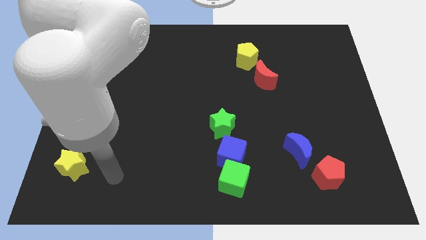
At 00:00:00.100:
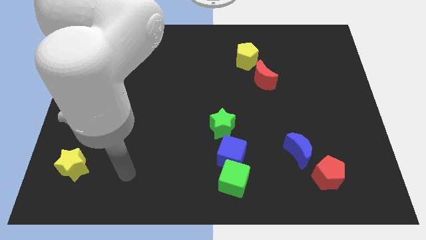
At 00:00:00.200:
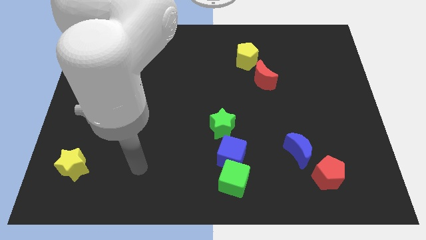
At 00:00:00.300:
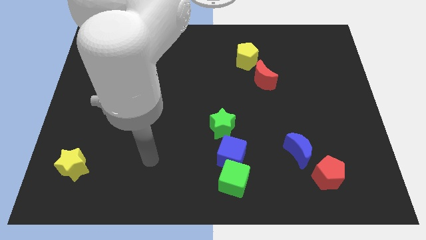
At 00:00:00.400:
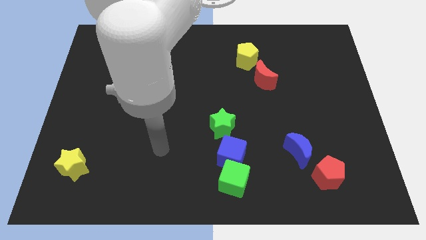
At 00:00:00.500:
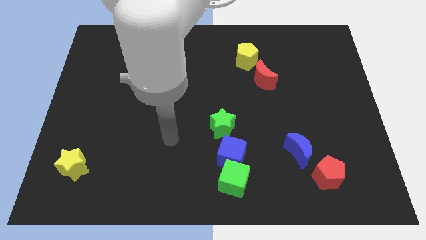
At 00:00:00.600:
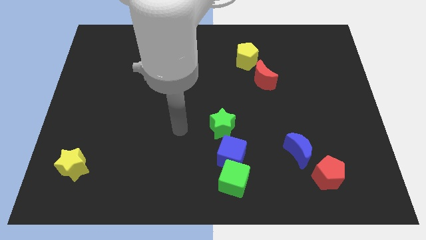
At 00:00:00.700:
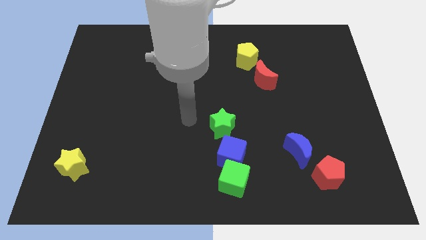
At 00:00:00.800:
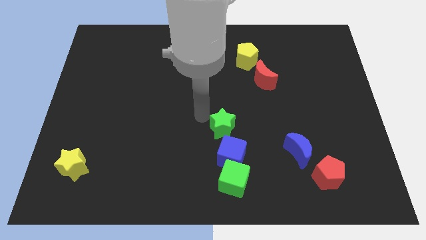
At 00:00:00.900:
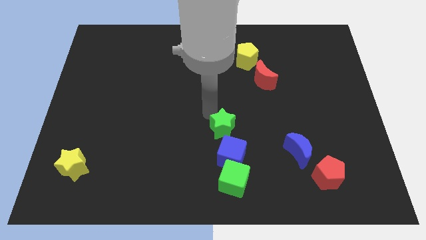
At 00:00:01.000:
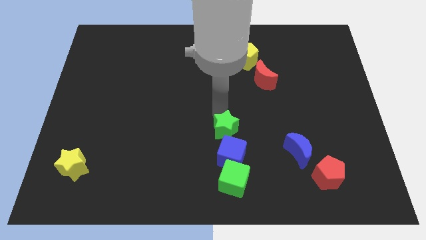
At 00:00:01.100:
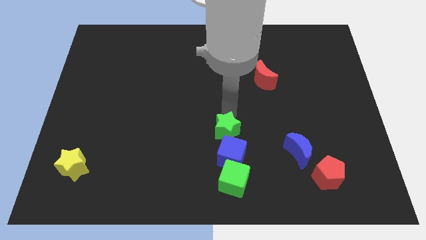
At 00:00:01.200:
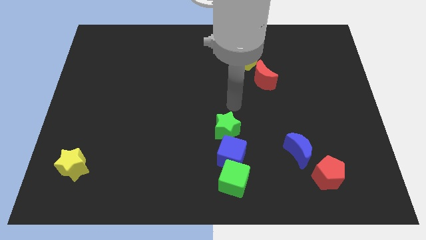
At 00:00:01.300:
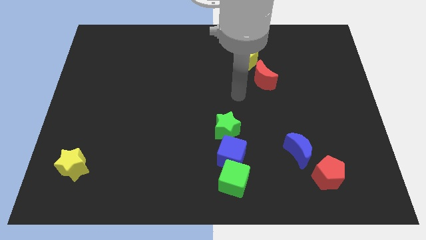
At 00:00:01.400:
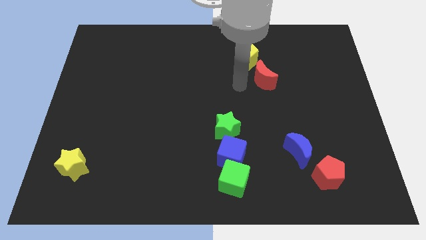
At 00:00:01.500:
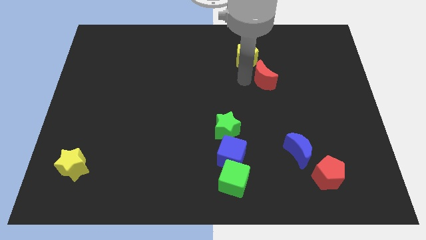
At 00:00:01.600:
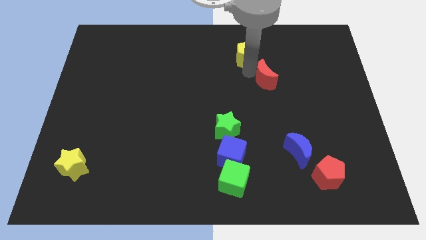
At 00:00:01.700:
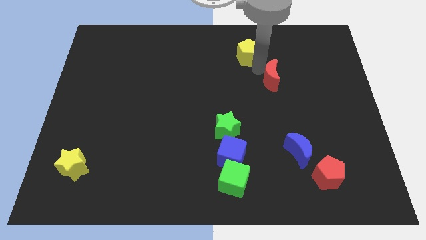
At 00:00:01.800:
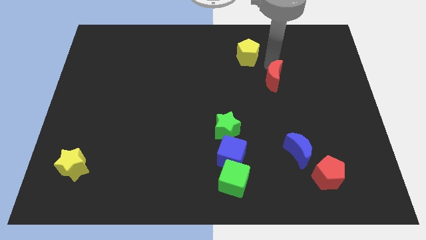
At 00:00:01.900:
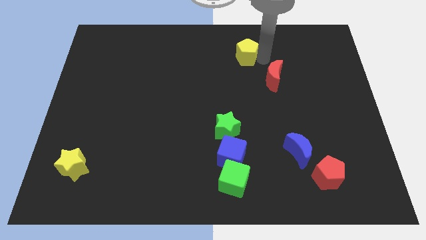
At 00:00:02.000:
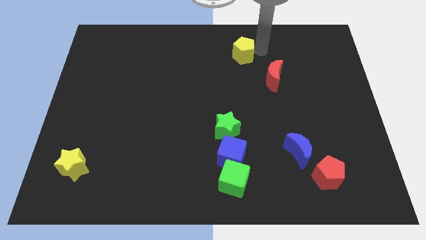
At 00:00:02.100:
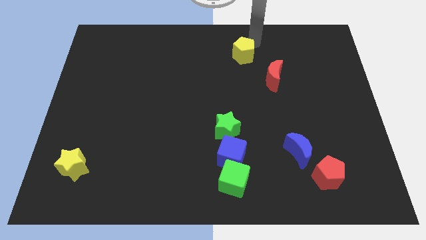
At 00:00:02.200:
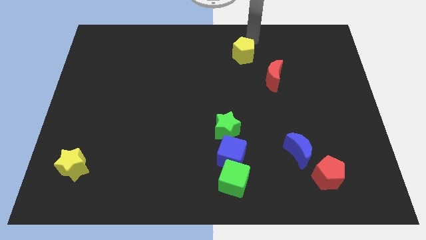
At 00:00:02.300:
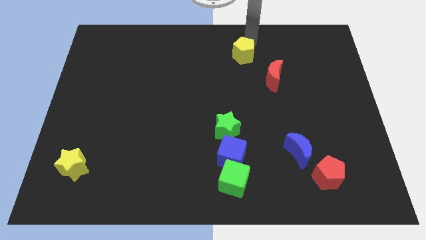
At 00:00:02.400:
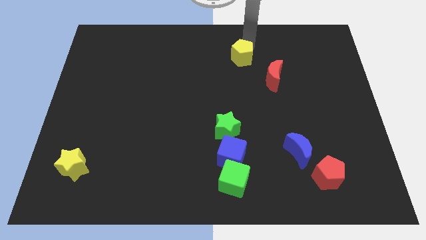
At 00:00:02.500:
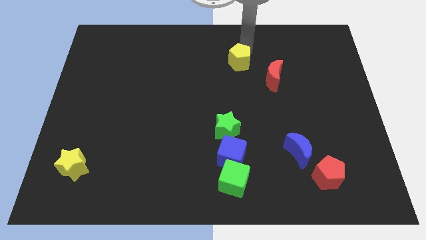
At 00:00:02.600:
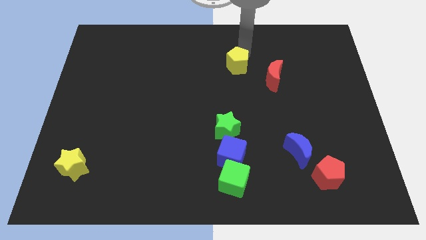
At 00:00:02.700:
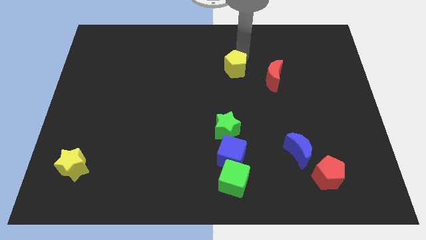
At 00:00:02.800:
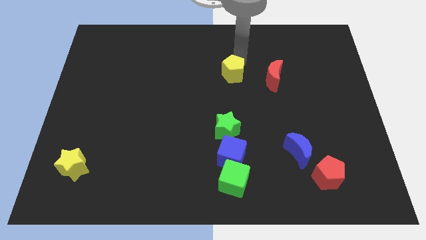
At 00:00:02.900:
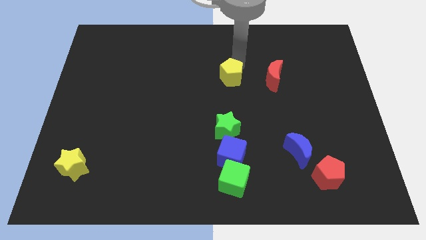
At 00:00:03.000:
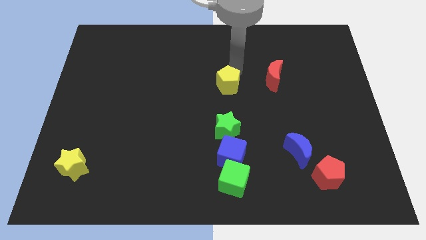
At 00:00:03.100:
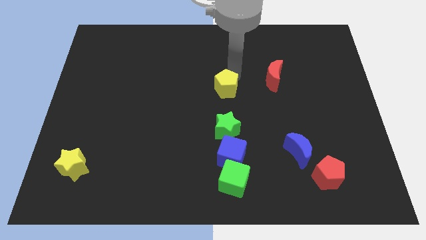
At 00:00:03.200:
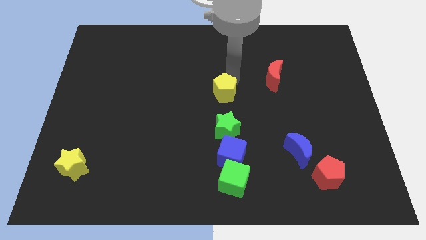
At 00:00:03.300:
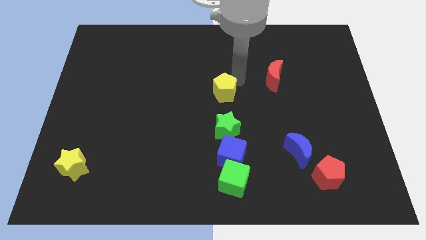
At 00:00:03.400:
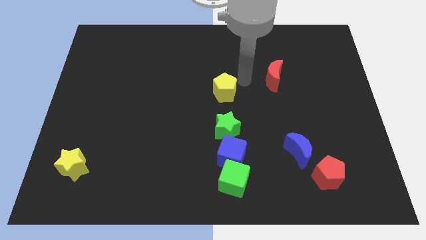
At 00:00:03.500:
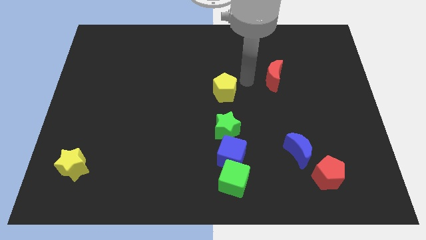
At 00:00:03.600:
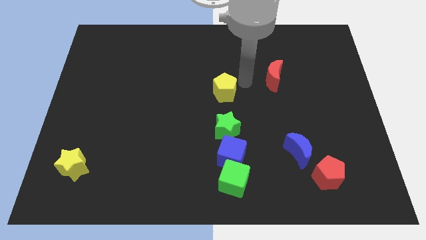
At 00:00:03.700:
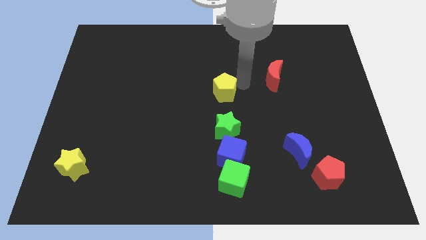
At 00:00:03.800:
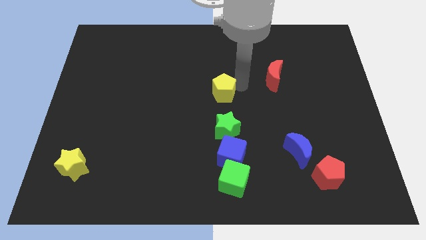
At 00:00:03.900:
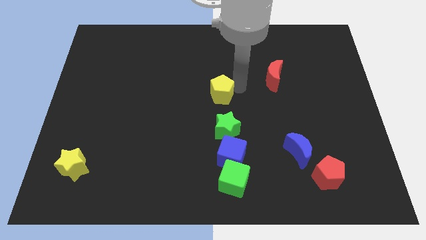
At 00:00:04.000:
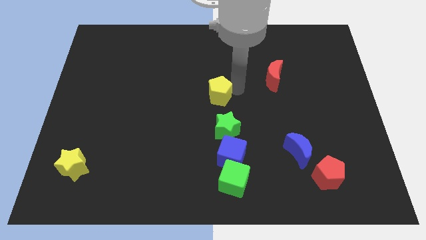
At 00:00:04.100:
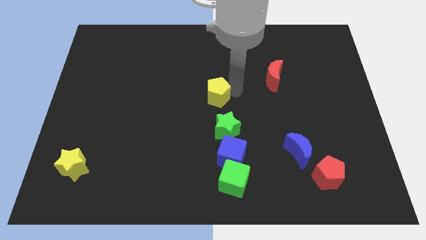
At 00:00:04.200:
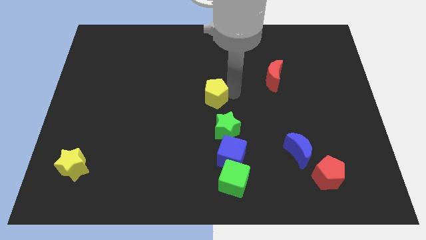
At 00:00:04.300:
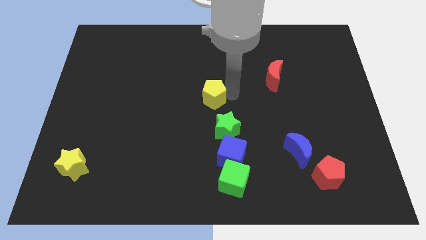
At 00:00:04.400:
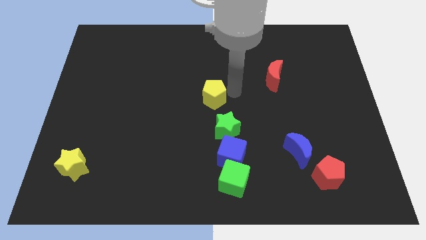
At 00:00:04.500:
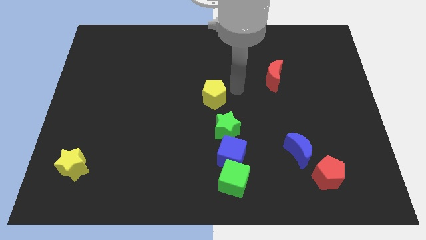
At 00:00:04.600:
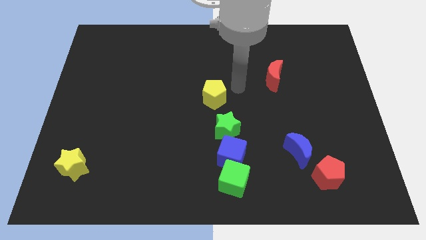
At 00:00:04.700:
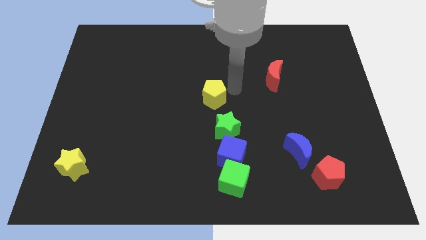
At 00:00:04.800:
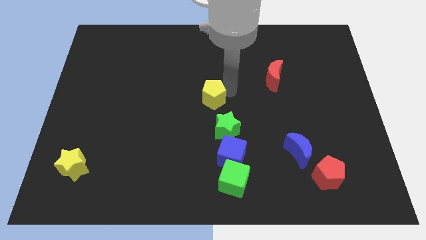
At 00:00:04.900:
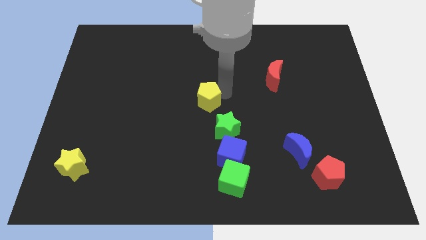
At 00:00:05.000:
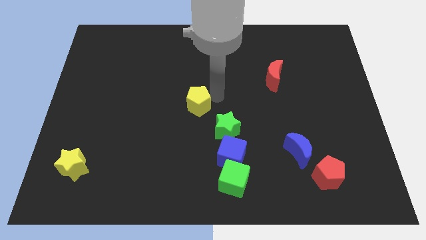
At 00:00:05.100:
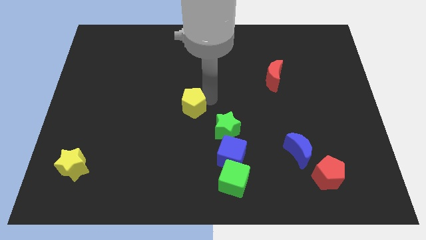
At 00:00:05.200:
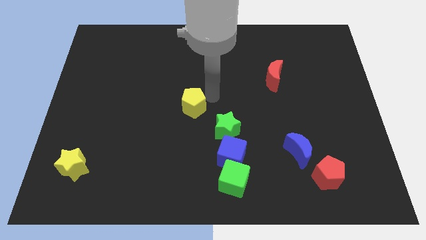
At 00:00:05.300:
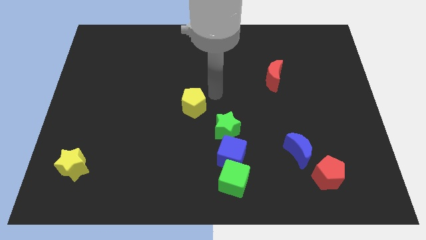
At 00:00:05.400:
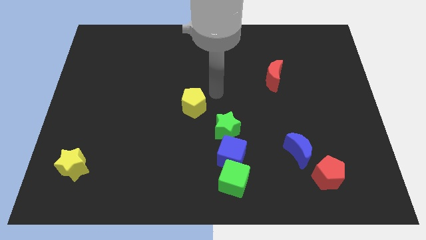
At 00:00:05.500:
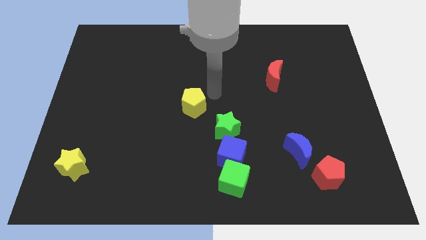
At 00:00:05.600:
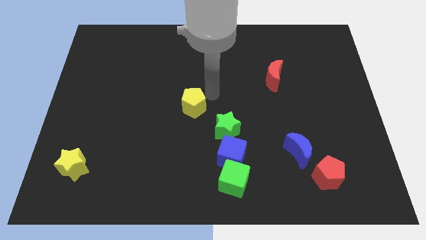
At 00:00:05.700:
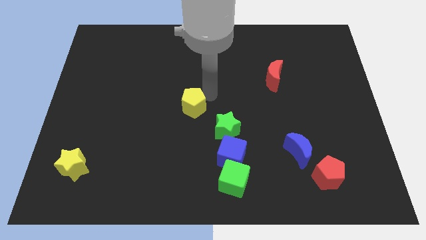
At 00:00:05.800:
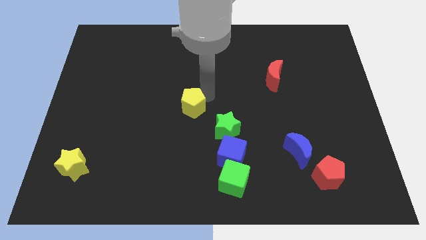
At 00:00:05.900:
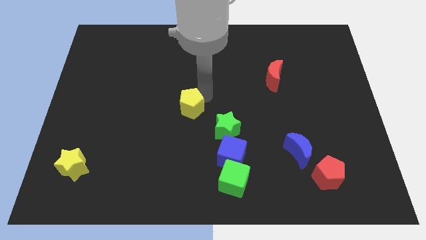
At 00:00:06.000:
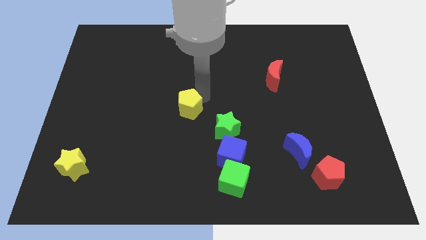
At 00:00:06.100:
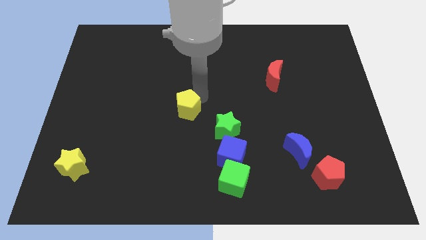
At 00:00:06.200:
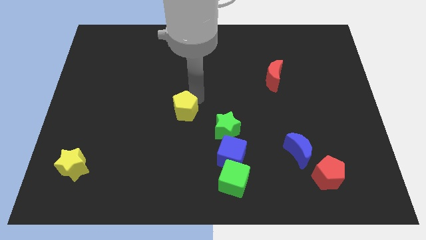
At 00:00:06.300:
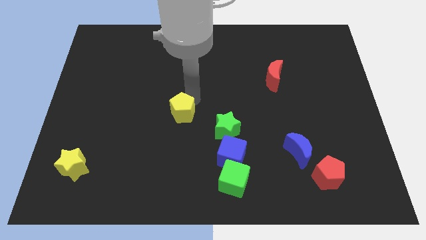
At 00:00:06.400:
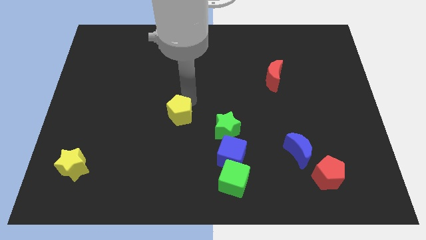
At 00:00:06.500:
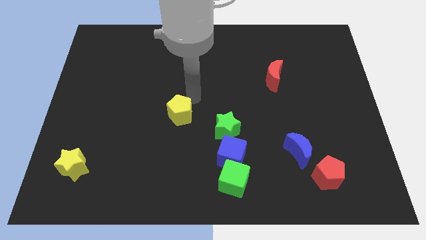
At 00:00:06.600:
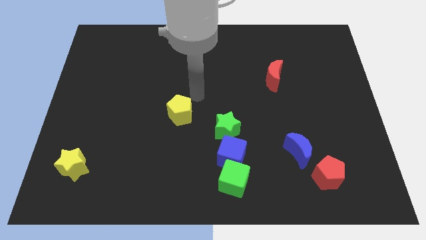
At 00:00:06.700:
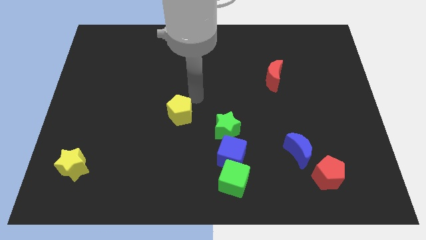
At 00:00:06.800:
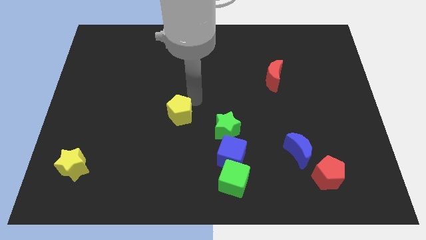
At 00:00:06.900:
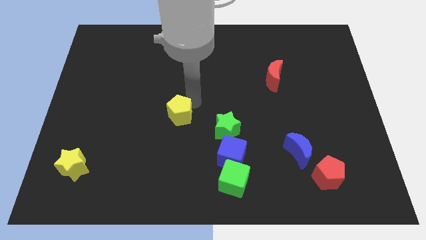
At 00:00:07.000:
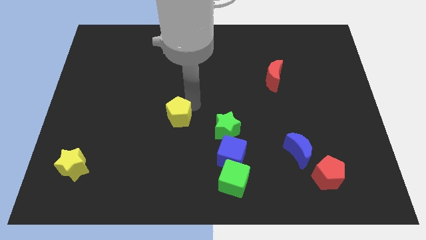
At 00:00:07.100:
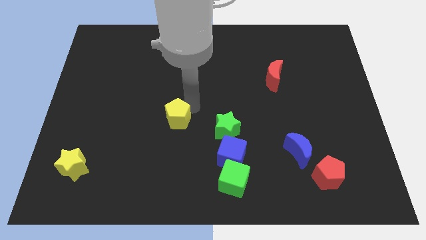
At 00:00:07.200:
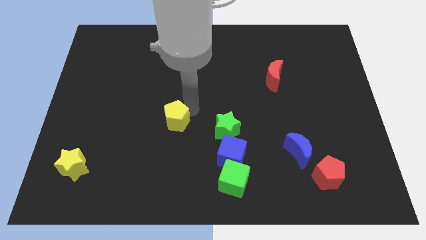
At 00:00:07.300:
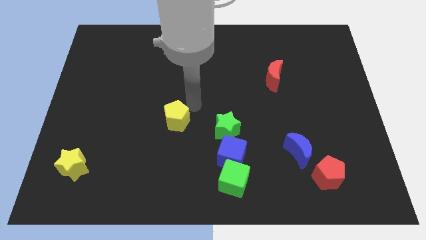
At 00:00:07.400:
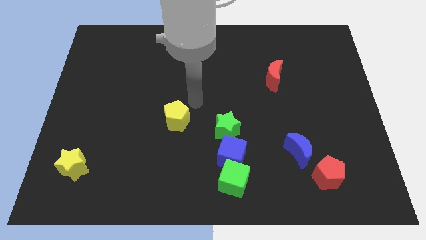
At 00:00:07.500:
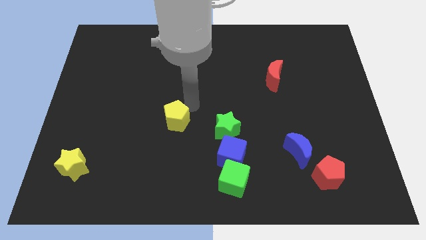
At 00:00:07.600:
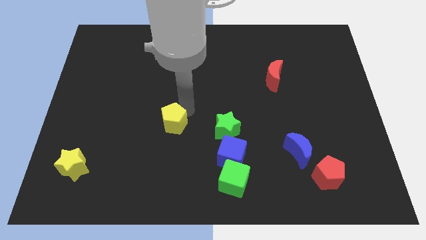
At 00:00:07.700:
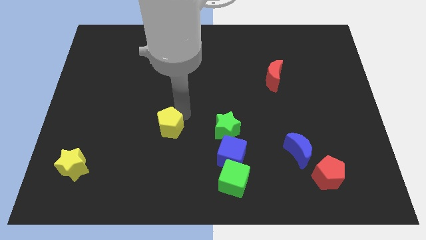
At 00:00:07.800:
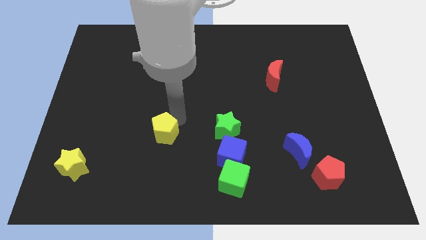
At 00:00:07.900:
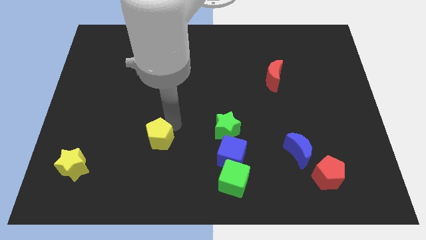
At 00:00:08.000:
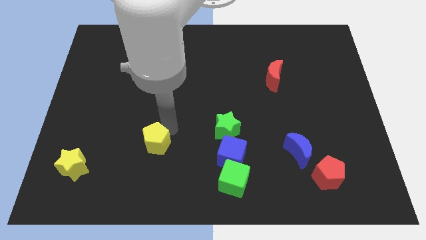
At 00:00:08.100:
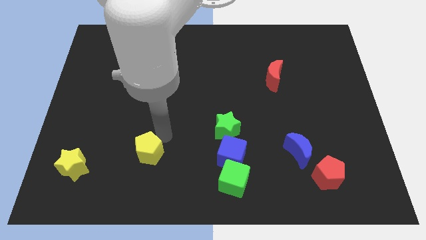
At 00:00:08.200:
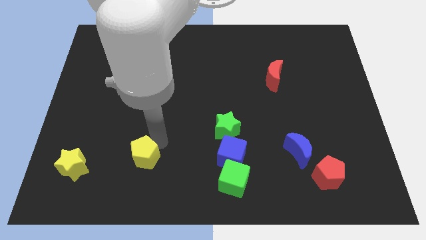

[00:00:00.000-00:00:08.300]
slide the yellow pentagon right of the yellow star
